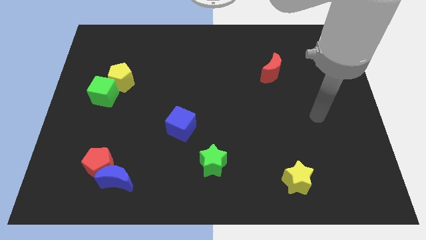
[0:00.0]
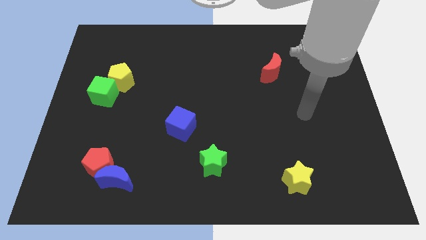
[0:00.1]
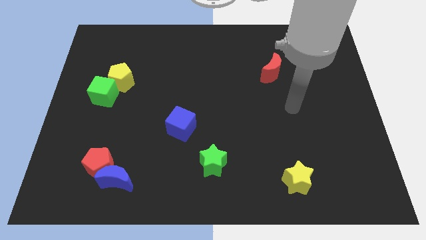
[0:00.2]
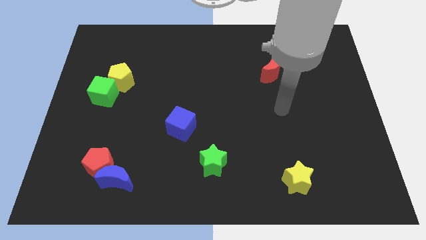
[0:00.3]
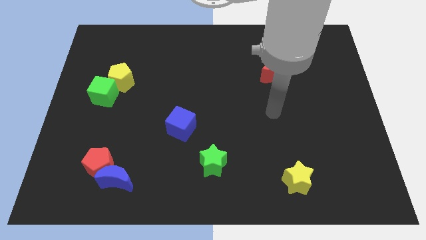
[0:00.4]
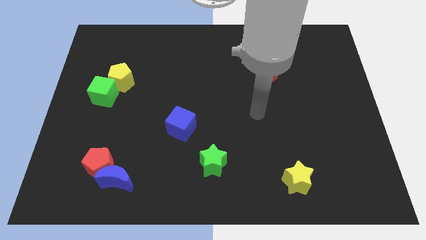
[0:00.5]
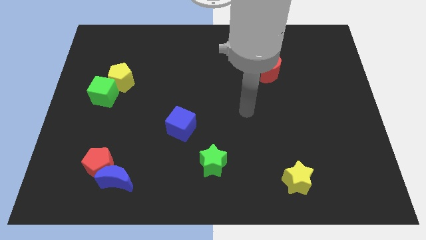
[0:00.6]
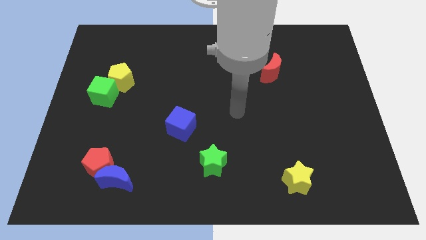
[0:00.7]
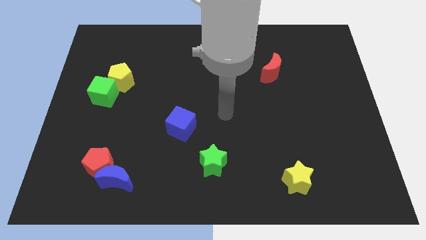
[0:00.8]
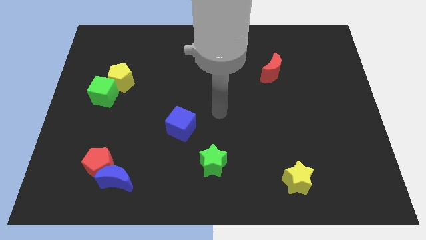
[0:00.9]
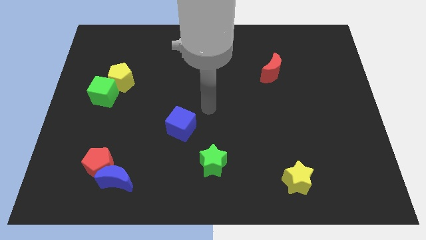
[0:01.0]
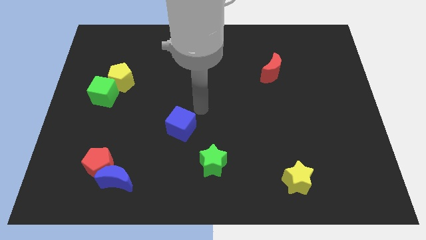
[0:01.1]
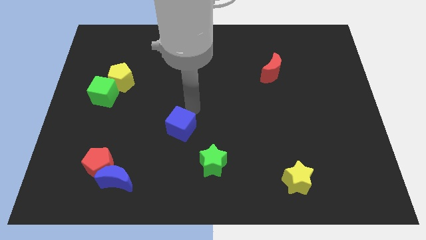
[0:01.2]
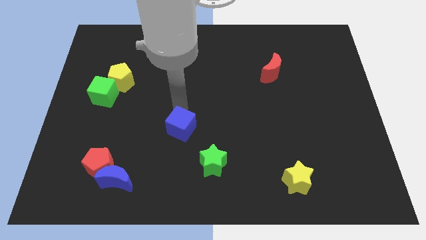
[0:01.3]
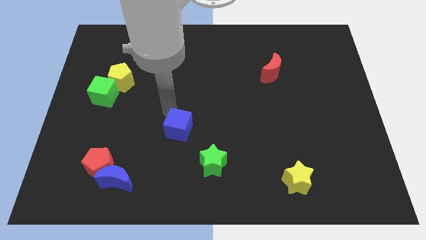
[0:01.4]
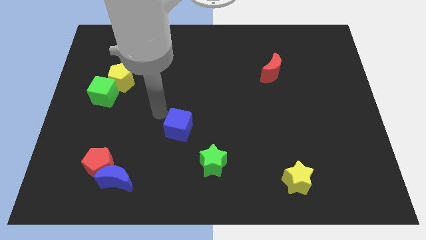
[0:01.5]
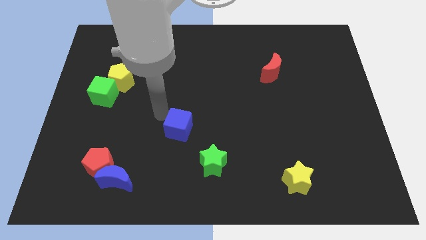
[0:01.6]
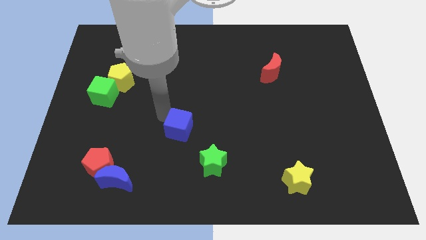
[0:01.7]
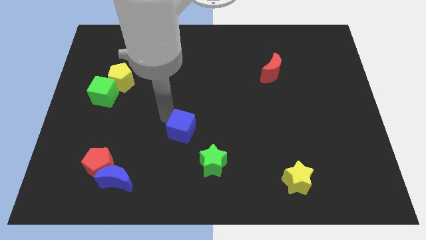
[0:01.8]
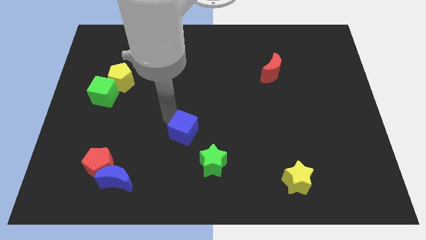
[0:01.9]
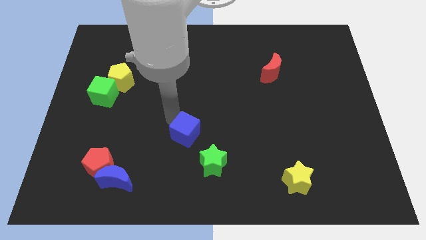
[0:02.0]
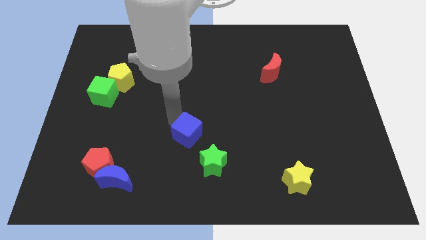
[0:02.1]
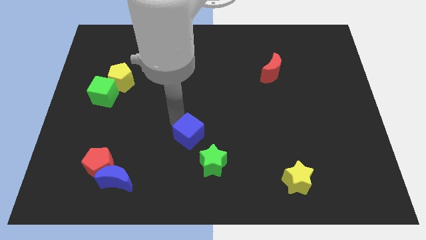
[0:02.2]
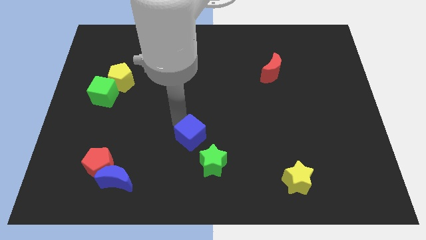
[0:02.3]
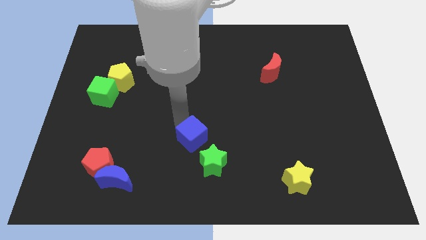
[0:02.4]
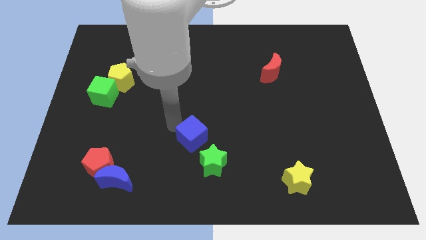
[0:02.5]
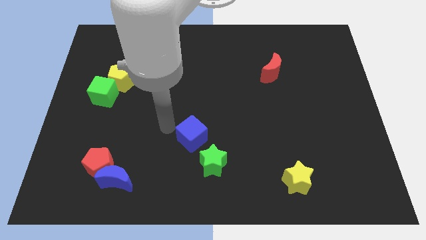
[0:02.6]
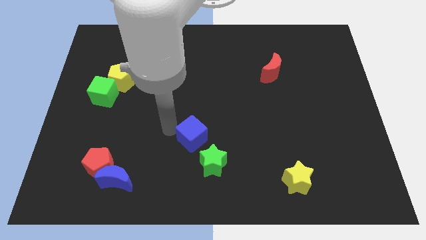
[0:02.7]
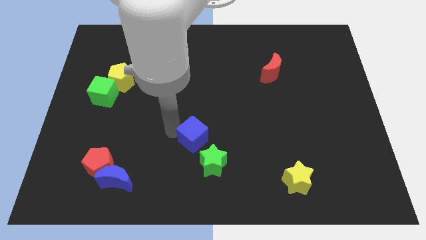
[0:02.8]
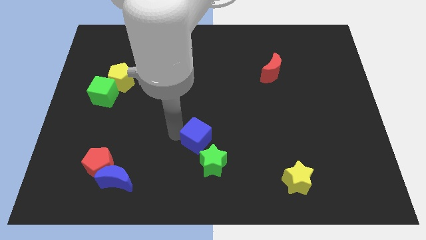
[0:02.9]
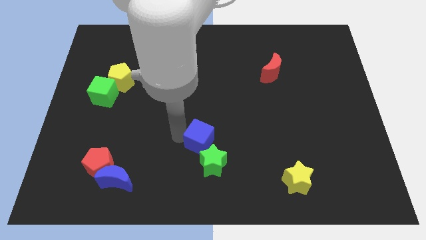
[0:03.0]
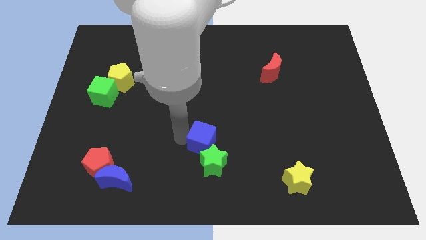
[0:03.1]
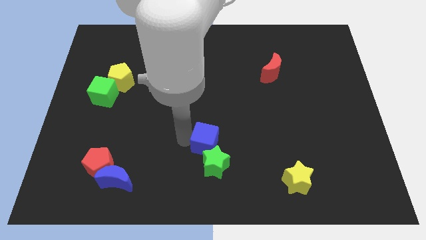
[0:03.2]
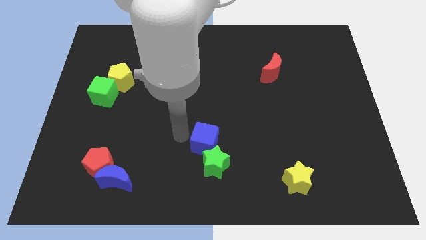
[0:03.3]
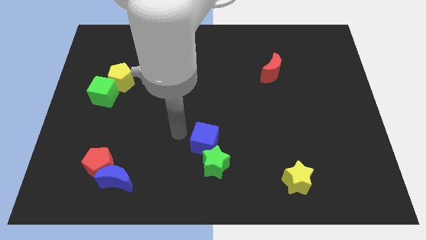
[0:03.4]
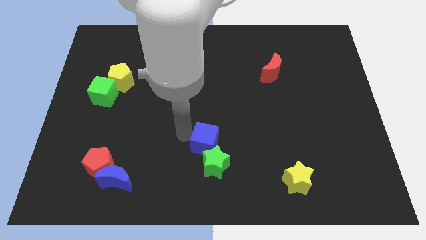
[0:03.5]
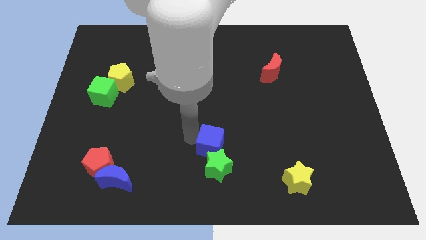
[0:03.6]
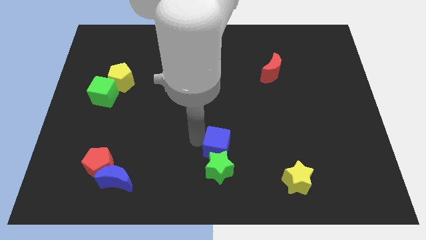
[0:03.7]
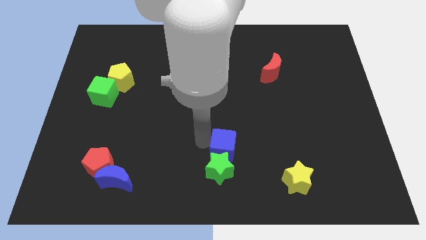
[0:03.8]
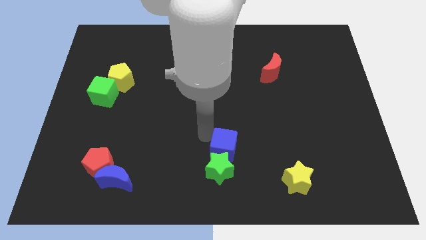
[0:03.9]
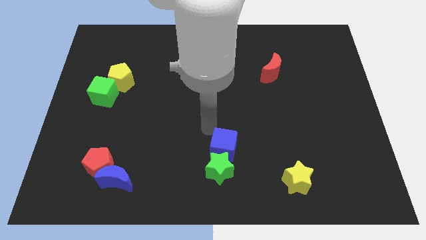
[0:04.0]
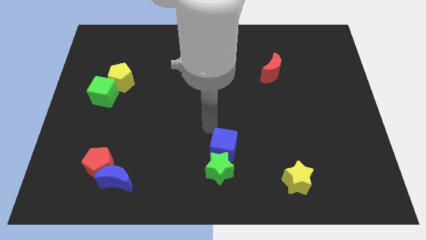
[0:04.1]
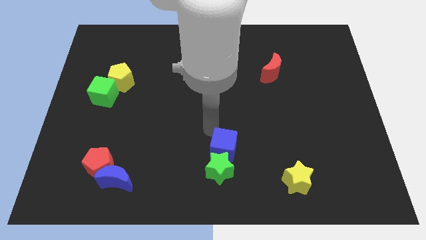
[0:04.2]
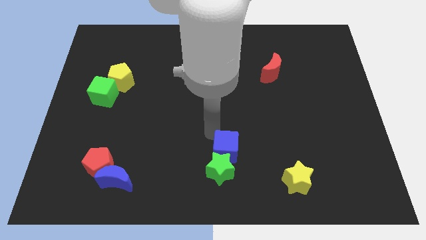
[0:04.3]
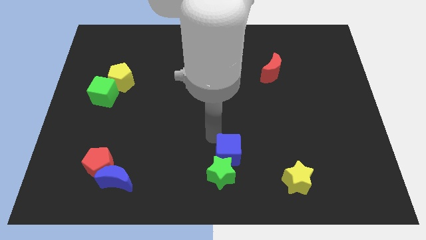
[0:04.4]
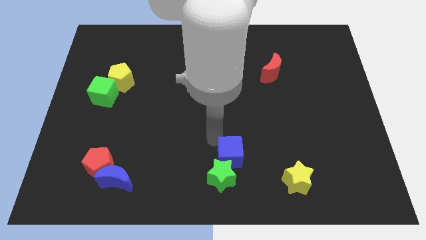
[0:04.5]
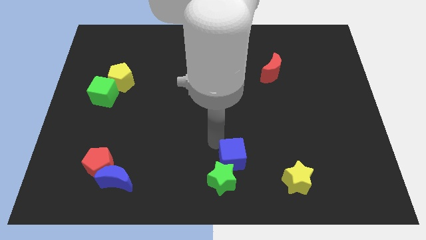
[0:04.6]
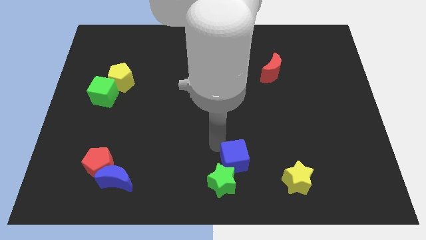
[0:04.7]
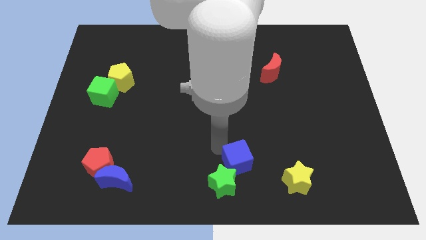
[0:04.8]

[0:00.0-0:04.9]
slide the blue cube just left of the yellow star

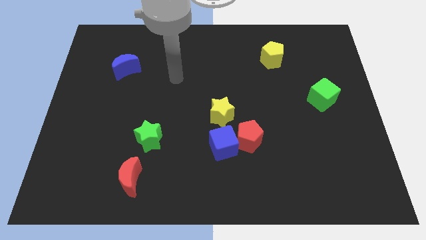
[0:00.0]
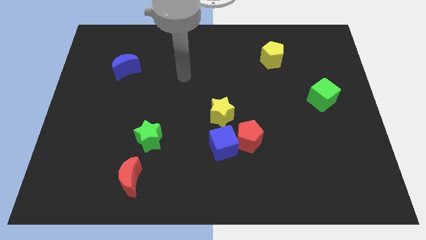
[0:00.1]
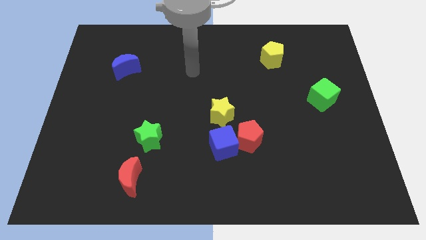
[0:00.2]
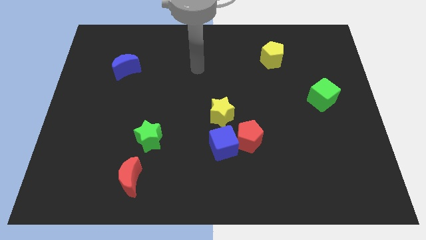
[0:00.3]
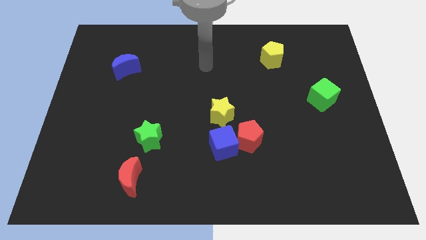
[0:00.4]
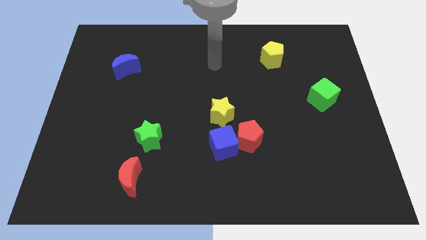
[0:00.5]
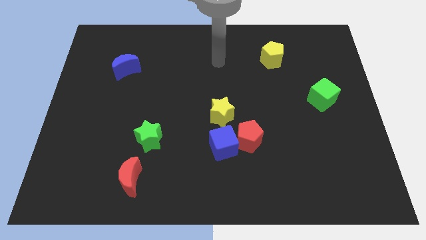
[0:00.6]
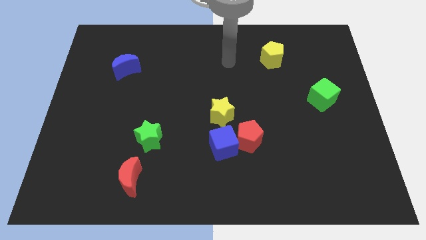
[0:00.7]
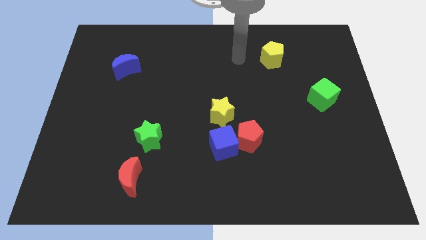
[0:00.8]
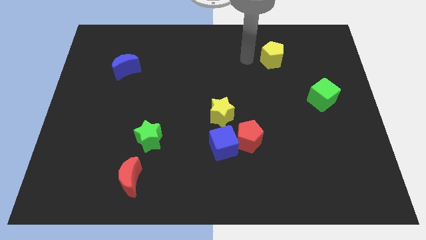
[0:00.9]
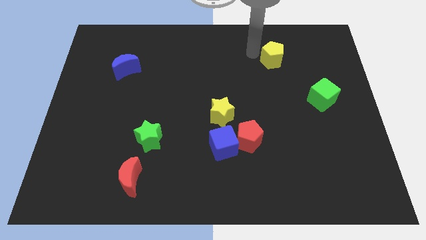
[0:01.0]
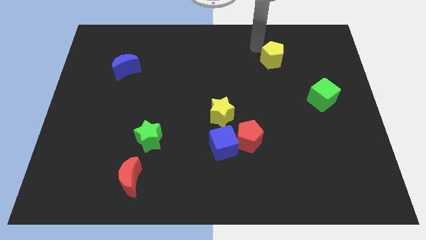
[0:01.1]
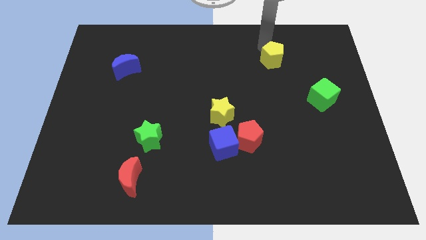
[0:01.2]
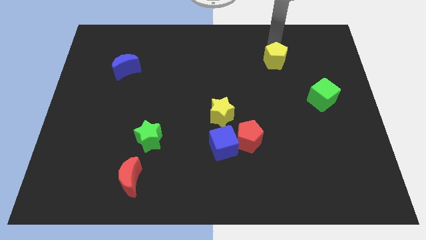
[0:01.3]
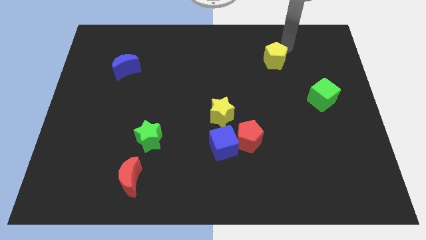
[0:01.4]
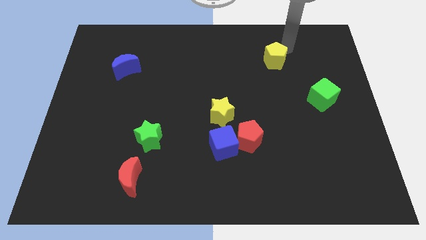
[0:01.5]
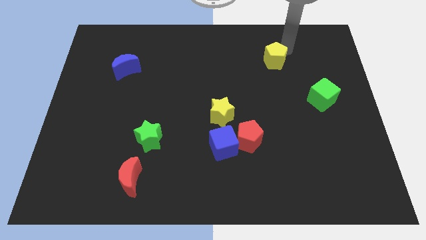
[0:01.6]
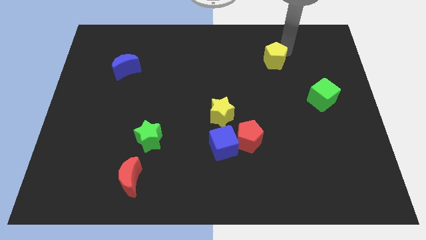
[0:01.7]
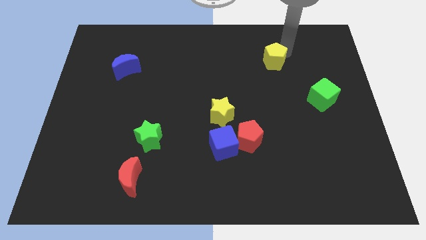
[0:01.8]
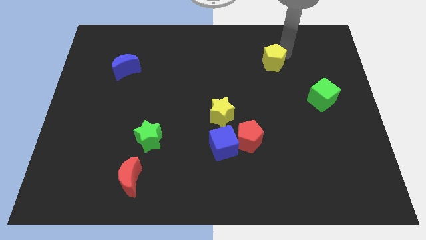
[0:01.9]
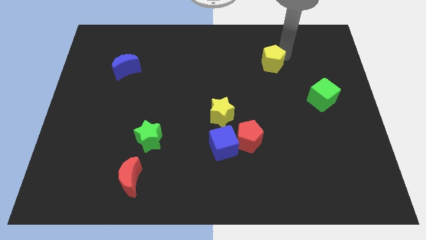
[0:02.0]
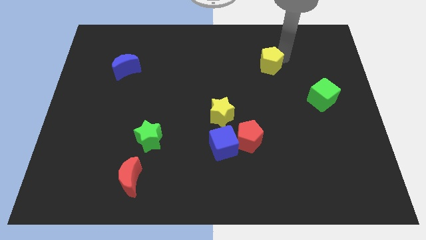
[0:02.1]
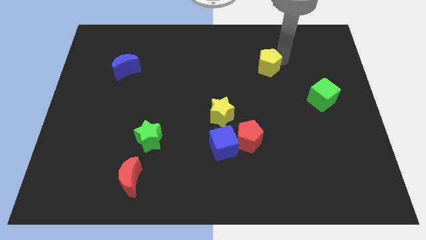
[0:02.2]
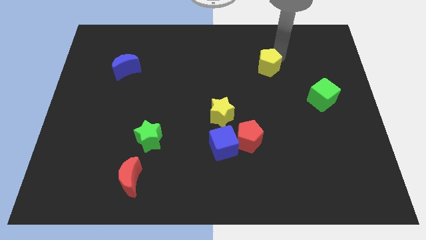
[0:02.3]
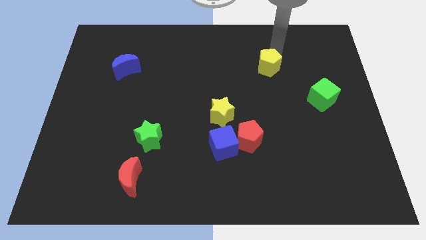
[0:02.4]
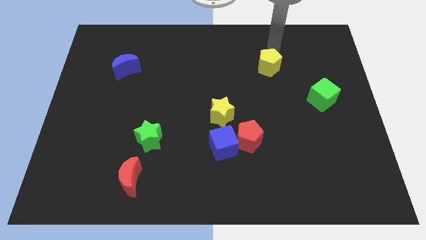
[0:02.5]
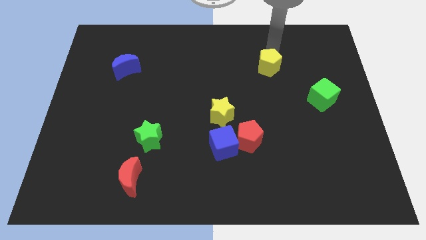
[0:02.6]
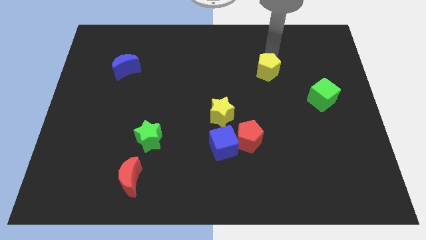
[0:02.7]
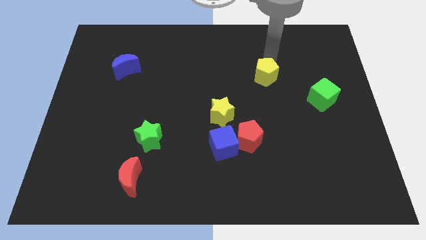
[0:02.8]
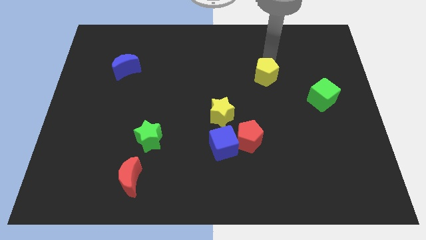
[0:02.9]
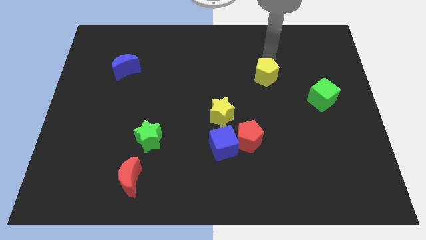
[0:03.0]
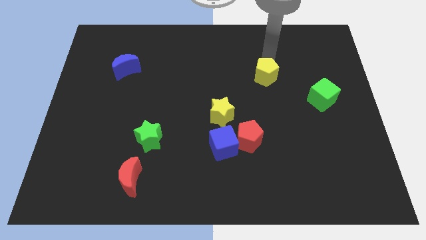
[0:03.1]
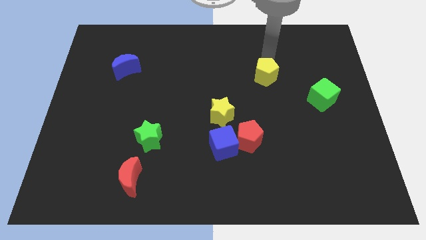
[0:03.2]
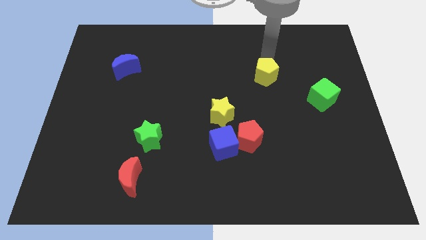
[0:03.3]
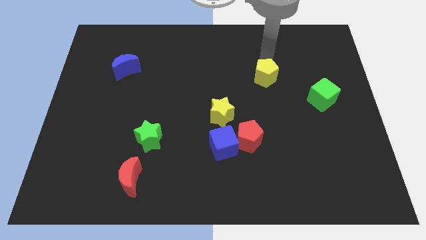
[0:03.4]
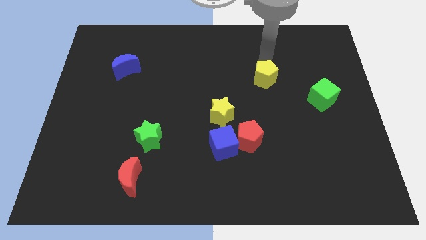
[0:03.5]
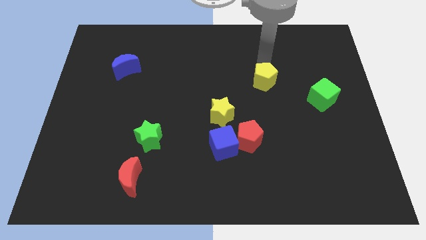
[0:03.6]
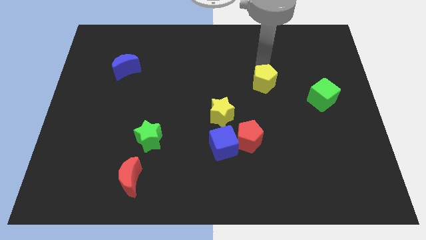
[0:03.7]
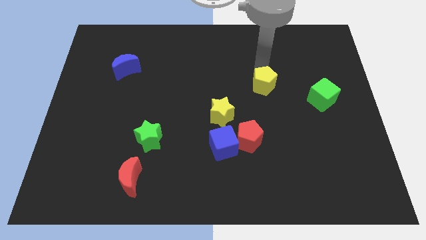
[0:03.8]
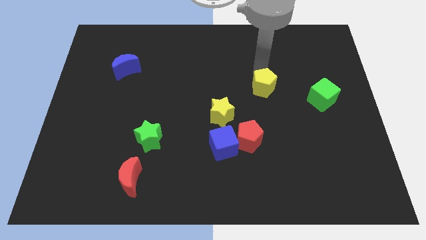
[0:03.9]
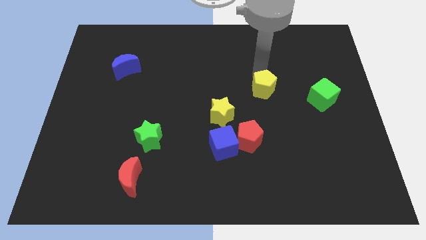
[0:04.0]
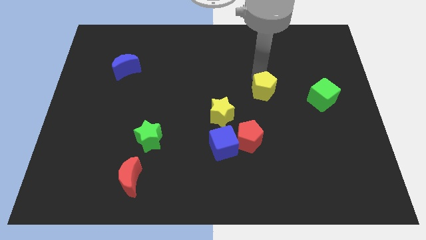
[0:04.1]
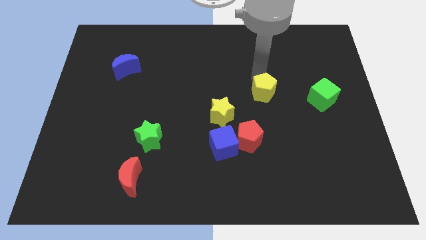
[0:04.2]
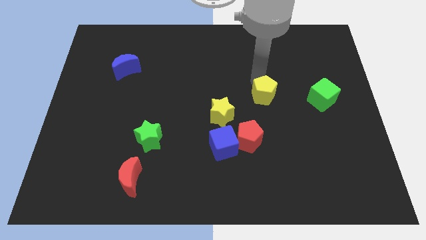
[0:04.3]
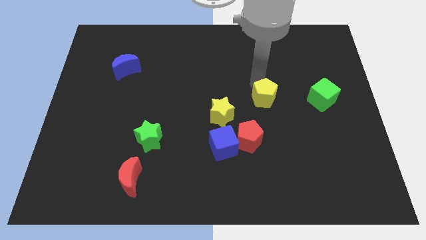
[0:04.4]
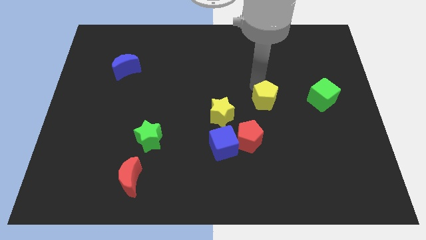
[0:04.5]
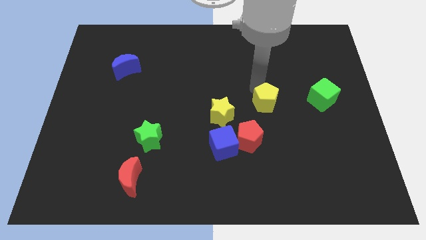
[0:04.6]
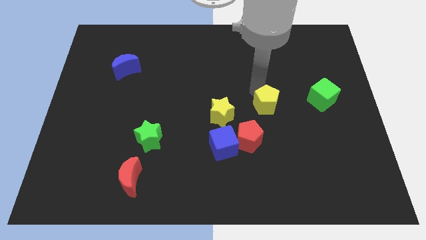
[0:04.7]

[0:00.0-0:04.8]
move the yellow pentagon diagonally up and to the right of the red pentagon
